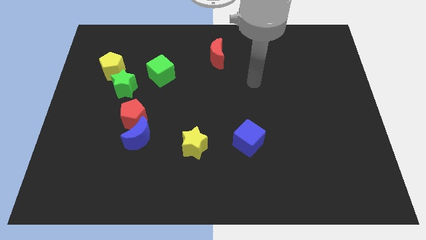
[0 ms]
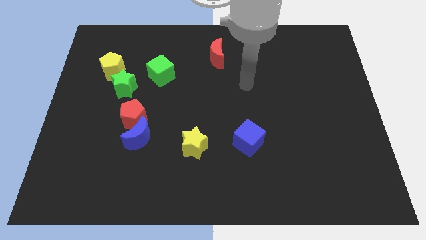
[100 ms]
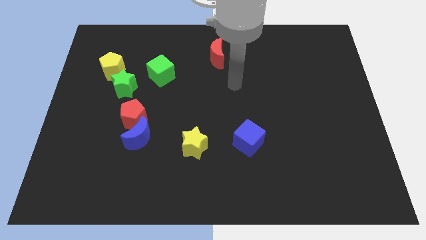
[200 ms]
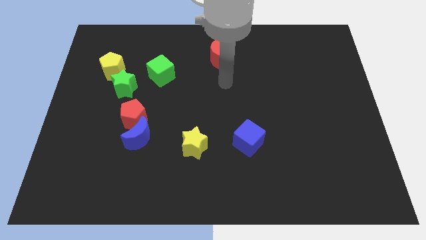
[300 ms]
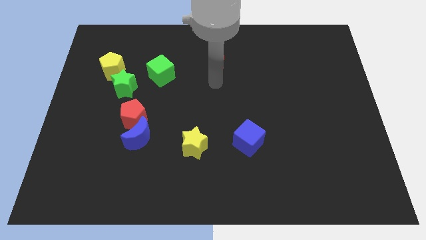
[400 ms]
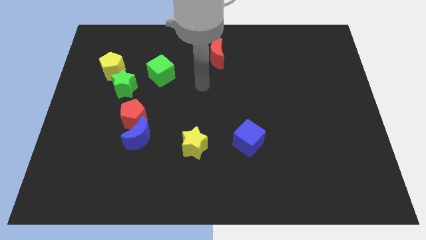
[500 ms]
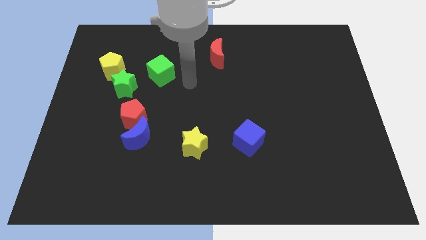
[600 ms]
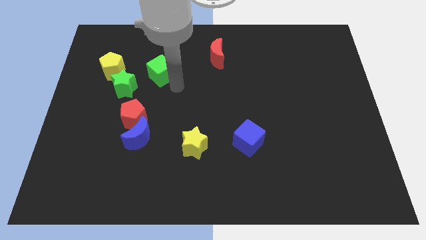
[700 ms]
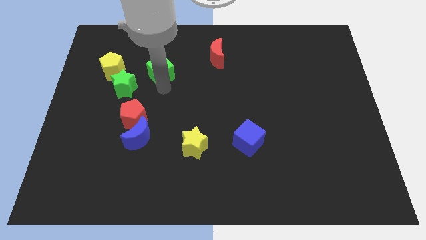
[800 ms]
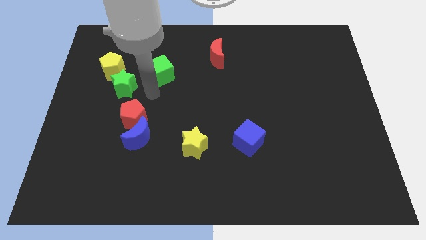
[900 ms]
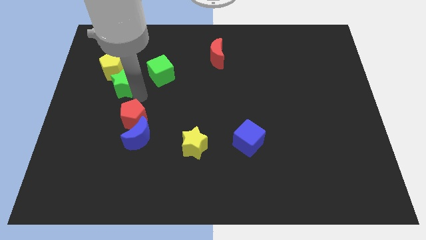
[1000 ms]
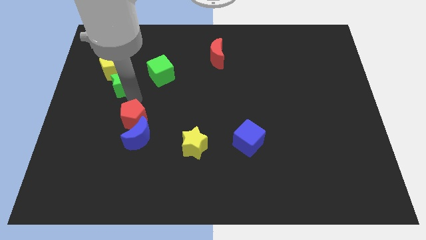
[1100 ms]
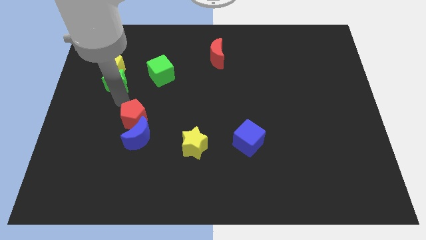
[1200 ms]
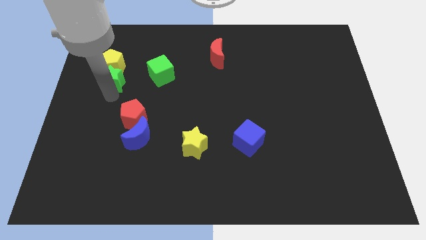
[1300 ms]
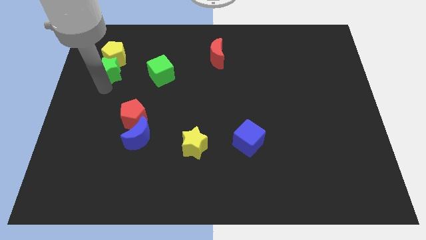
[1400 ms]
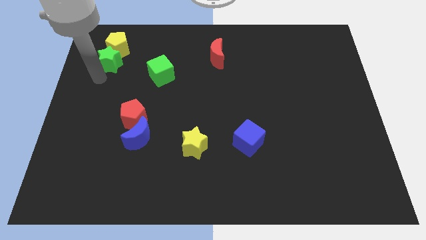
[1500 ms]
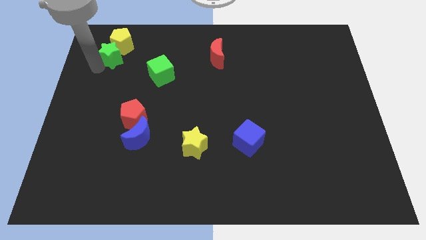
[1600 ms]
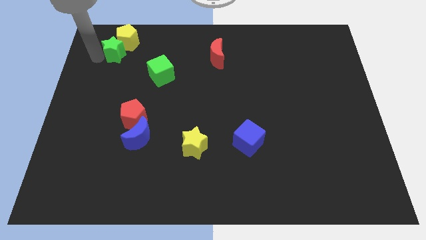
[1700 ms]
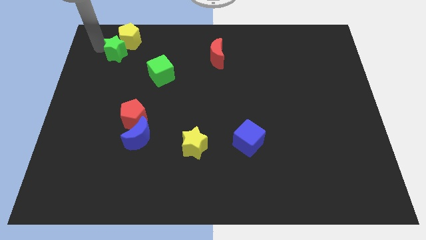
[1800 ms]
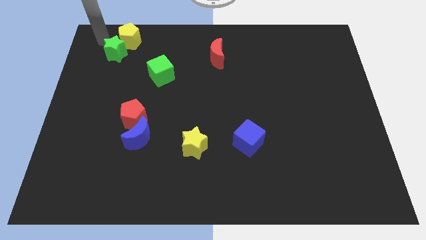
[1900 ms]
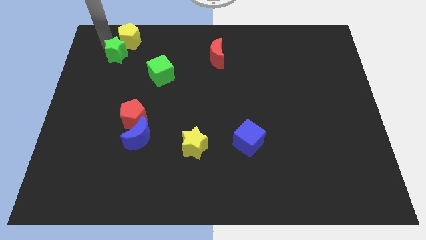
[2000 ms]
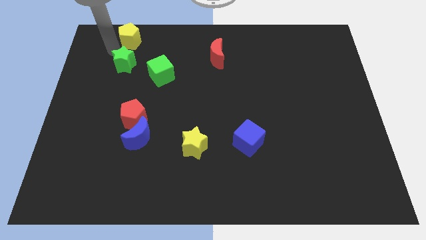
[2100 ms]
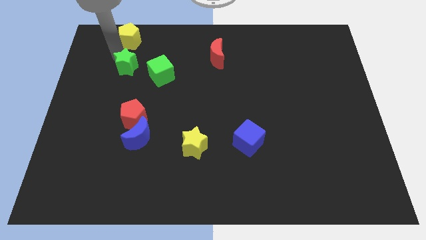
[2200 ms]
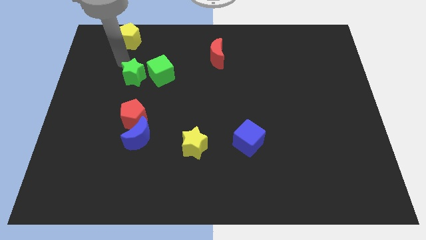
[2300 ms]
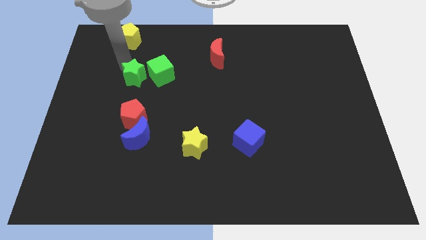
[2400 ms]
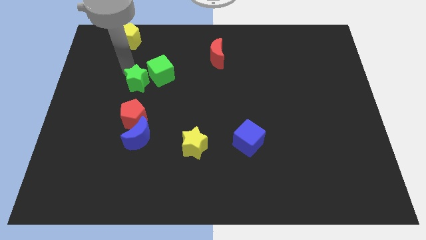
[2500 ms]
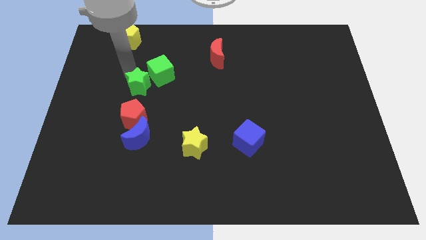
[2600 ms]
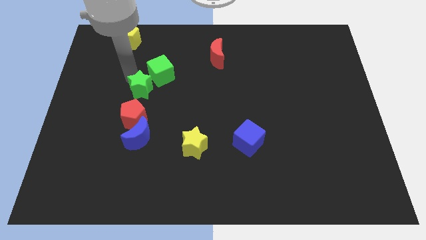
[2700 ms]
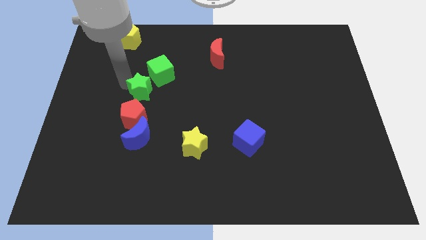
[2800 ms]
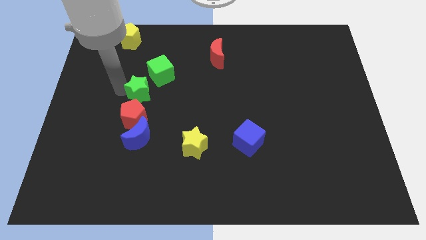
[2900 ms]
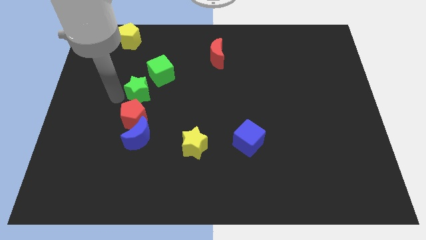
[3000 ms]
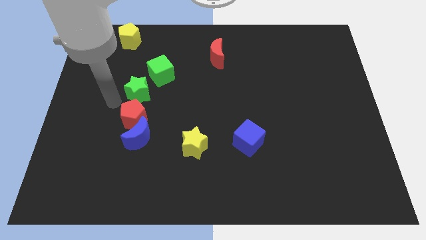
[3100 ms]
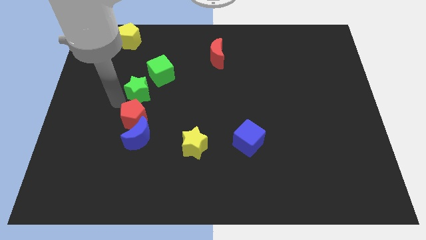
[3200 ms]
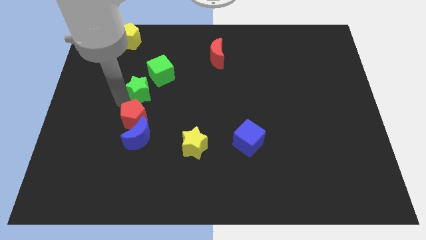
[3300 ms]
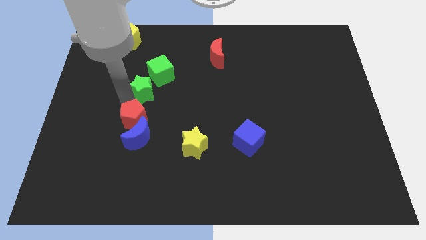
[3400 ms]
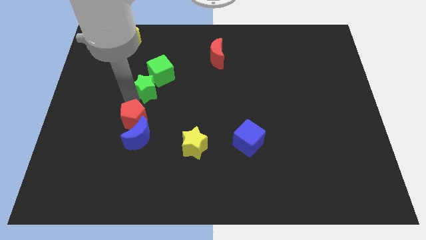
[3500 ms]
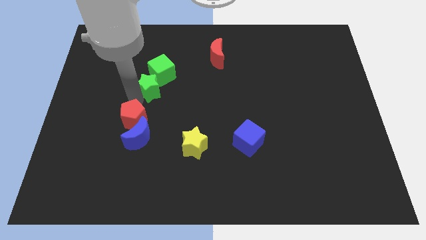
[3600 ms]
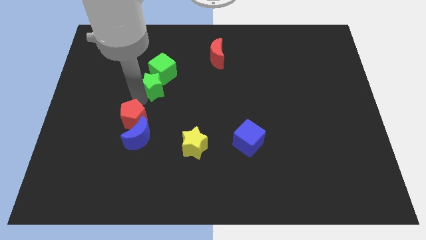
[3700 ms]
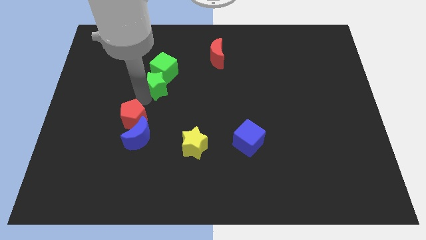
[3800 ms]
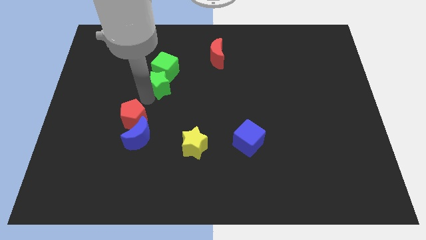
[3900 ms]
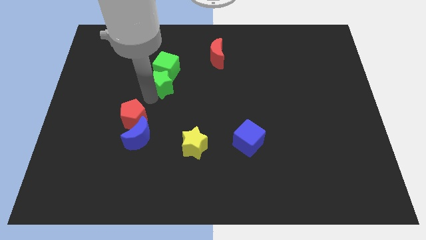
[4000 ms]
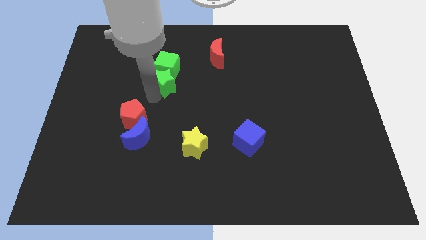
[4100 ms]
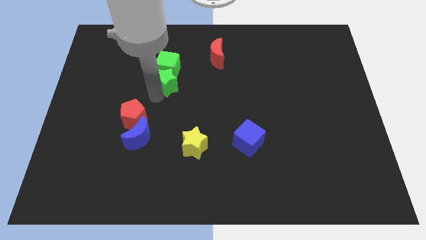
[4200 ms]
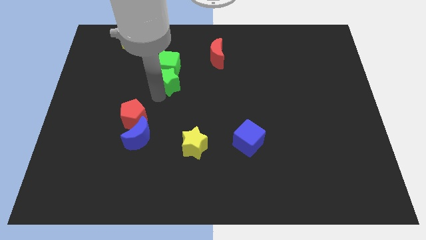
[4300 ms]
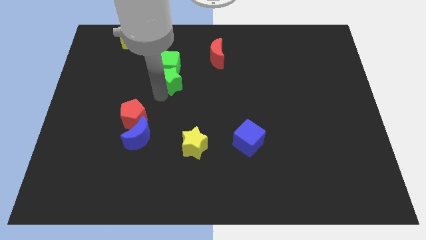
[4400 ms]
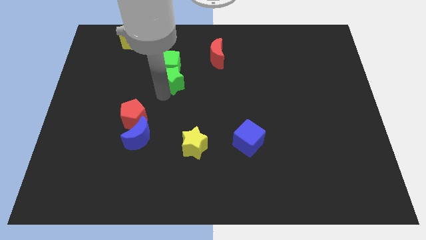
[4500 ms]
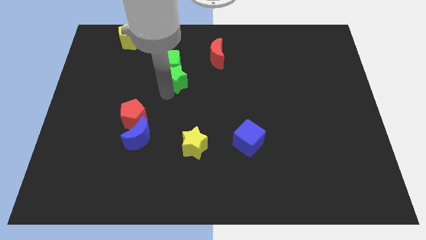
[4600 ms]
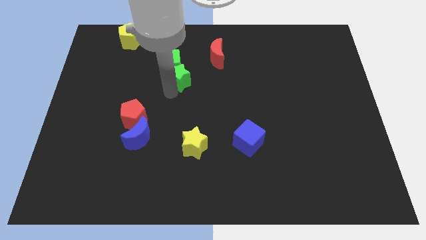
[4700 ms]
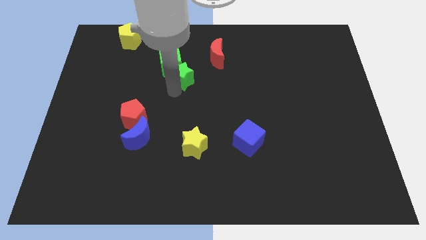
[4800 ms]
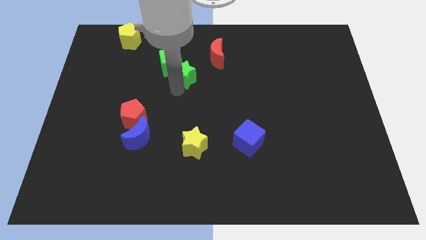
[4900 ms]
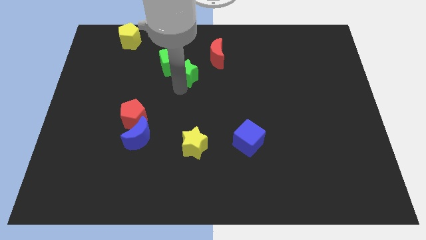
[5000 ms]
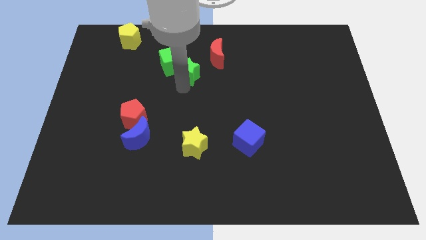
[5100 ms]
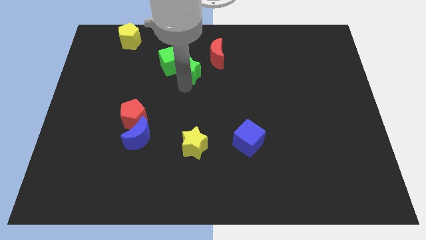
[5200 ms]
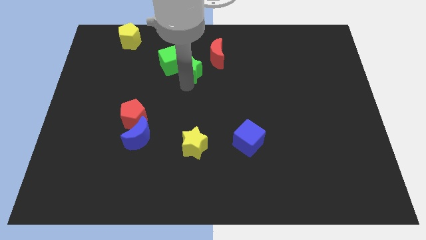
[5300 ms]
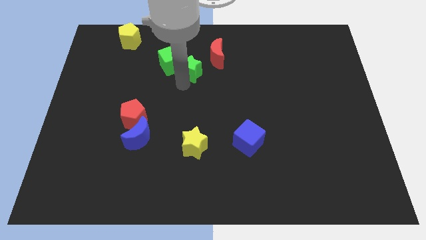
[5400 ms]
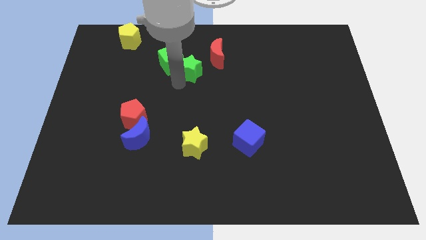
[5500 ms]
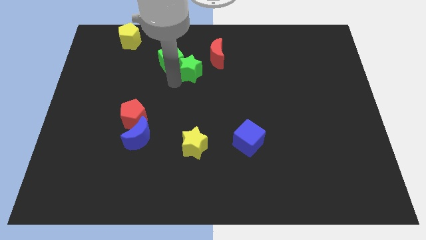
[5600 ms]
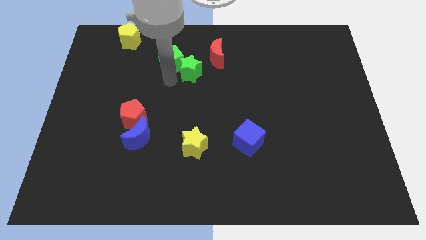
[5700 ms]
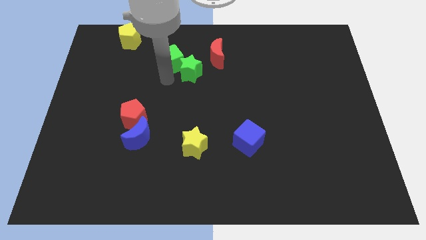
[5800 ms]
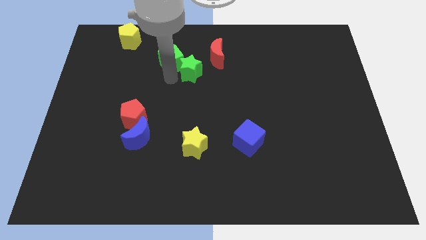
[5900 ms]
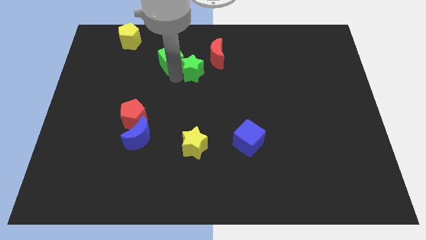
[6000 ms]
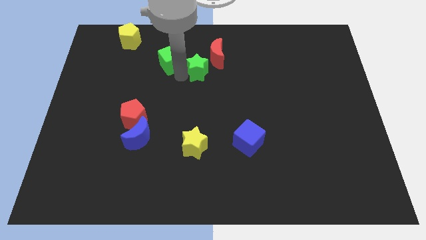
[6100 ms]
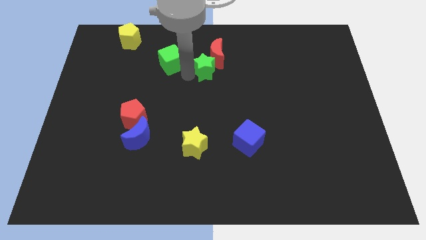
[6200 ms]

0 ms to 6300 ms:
put the green star close to the red moon

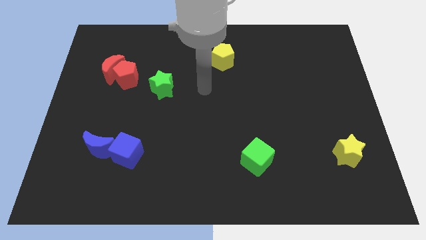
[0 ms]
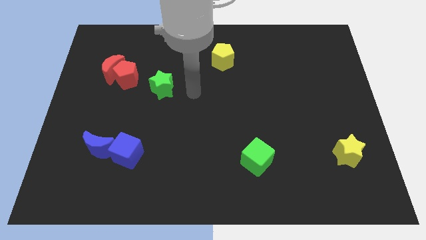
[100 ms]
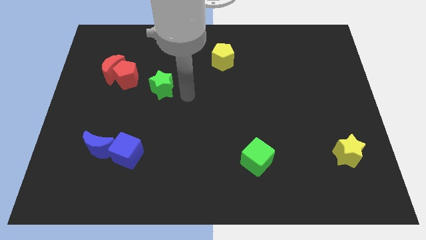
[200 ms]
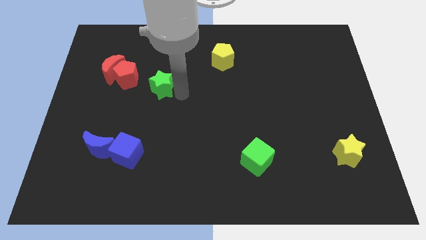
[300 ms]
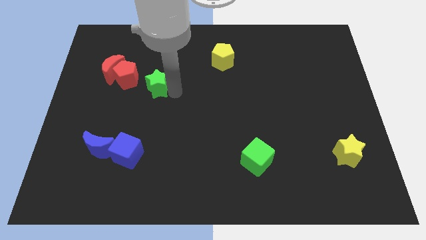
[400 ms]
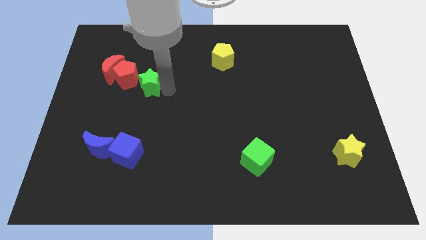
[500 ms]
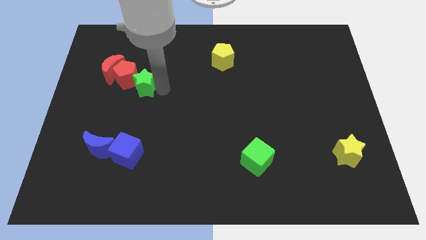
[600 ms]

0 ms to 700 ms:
put the green star close to the red pentagon

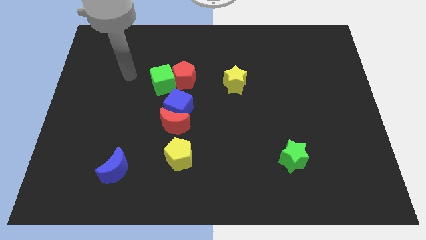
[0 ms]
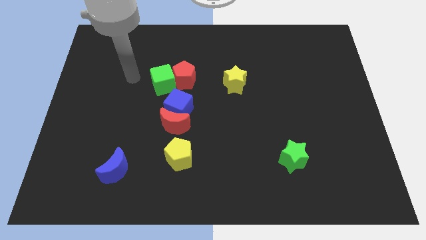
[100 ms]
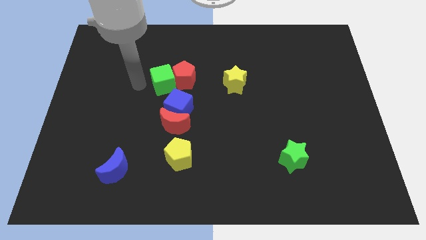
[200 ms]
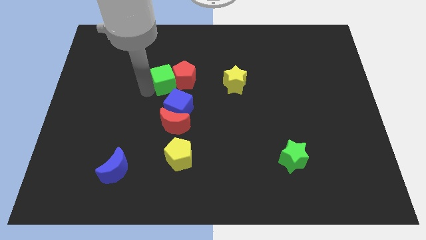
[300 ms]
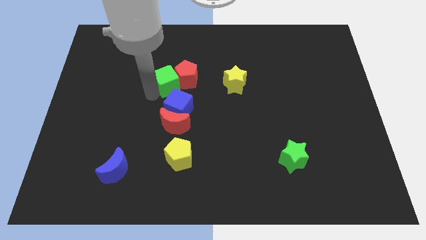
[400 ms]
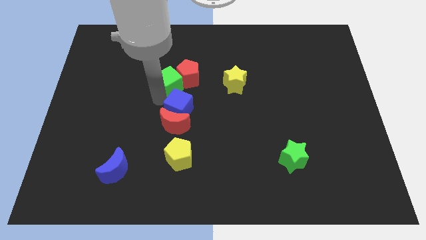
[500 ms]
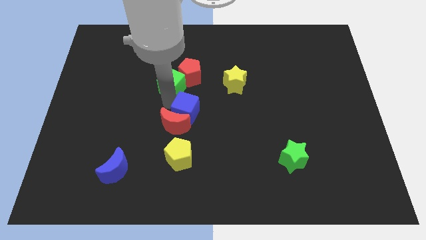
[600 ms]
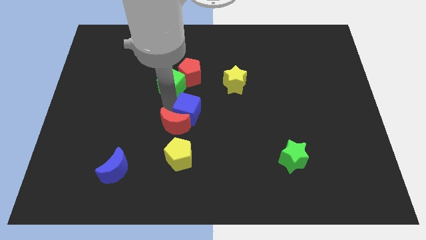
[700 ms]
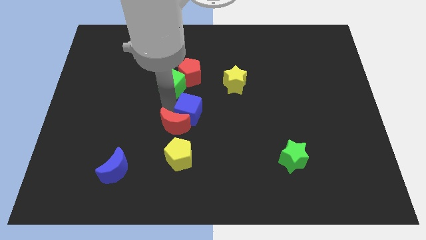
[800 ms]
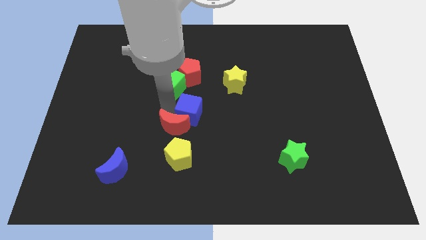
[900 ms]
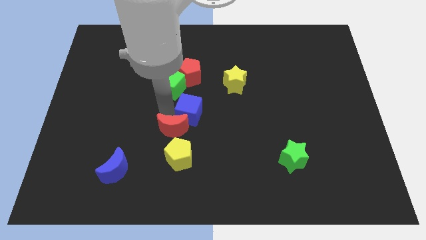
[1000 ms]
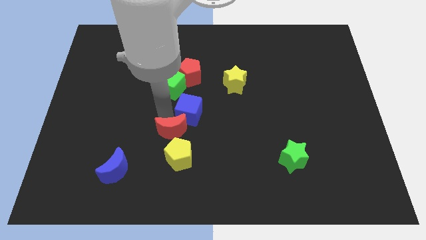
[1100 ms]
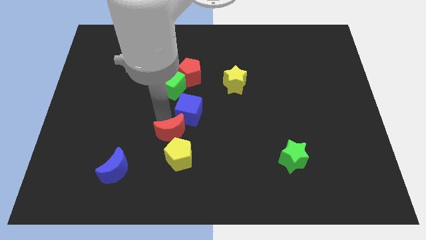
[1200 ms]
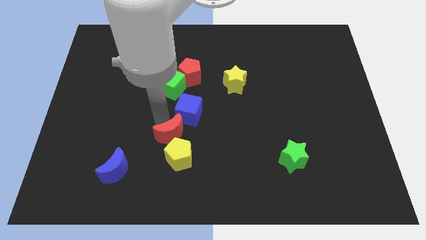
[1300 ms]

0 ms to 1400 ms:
put the red moon next to the yellow pentagon
